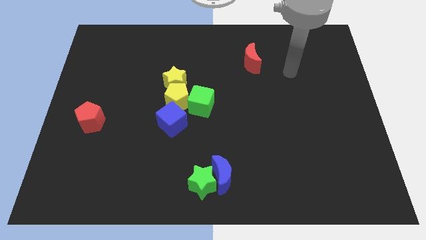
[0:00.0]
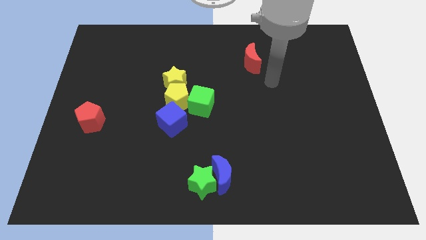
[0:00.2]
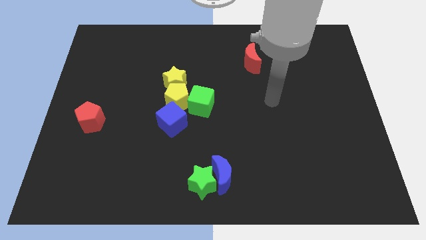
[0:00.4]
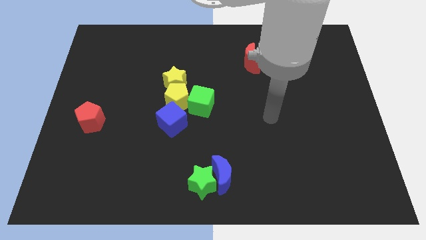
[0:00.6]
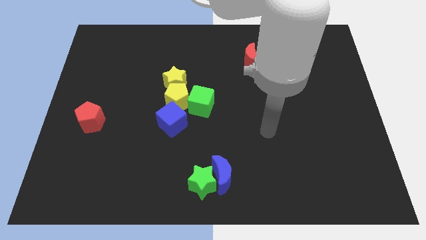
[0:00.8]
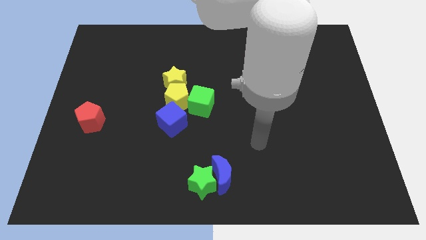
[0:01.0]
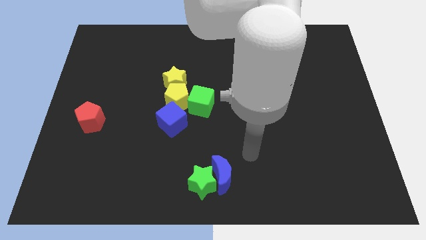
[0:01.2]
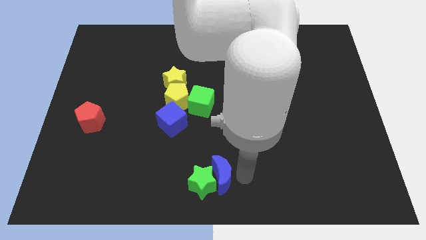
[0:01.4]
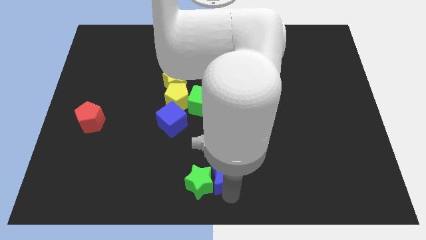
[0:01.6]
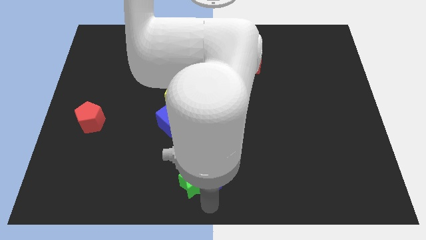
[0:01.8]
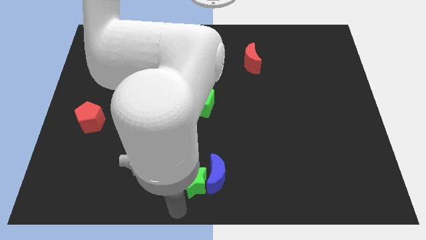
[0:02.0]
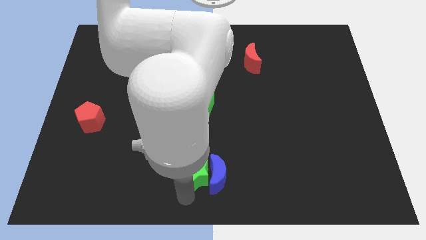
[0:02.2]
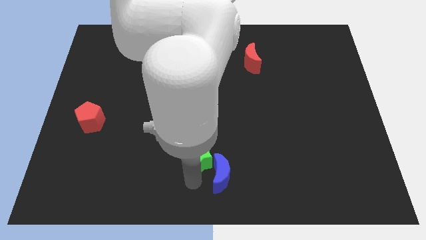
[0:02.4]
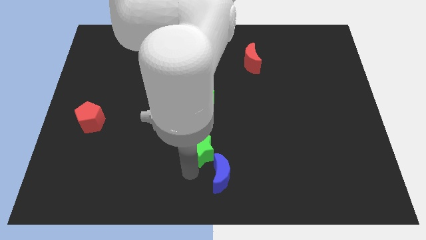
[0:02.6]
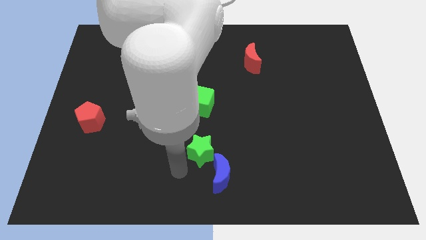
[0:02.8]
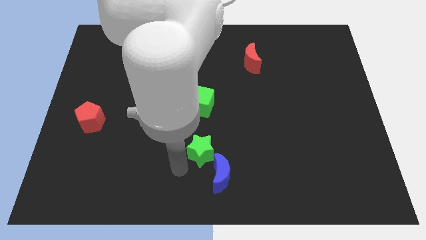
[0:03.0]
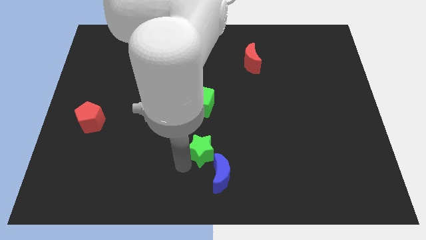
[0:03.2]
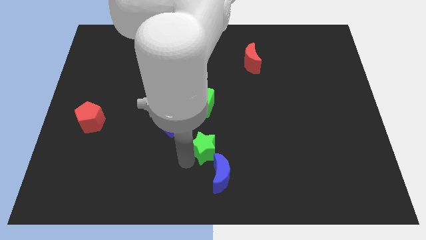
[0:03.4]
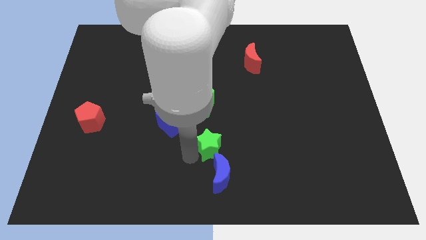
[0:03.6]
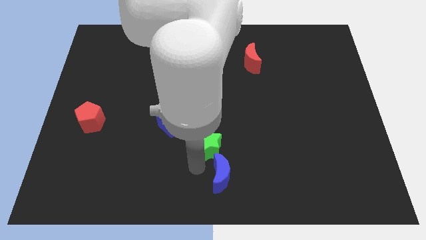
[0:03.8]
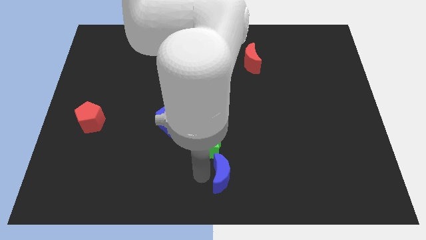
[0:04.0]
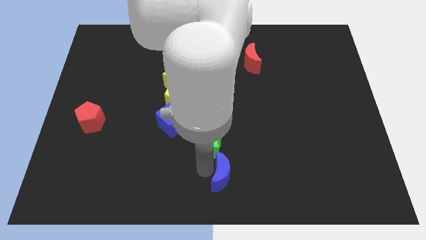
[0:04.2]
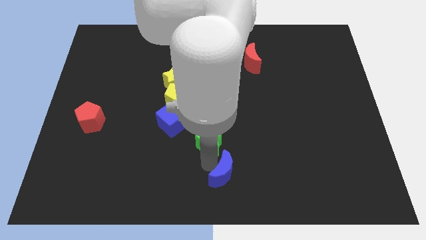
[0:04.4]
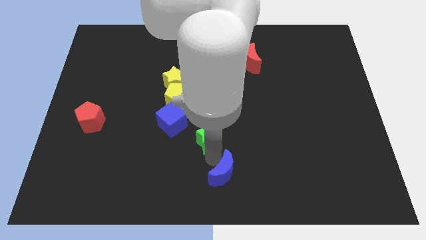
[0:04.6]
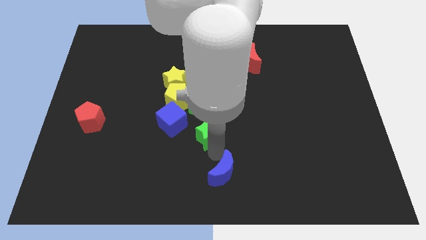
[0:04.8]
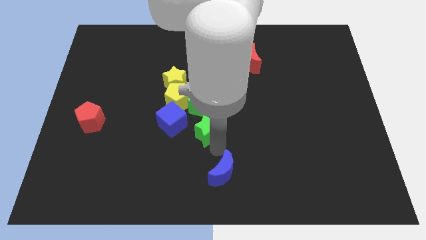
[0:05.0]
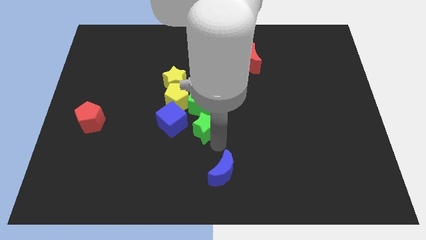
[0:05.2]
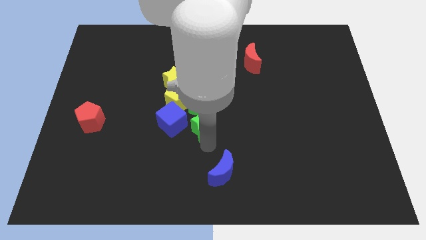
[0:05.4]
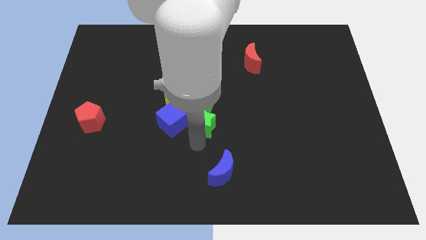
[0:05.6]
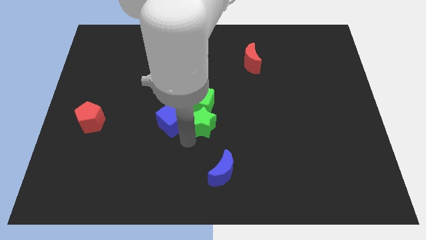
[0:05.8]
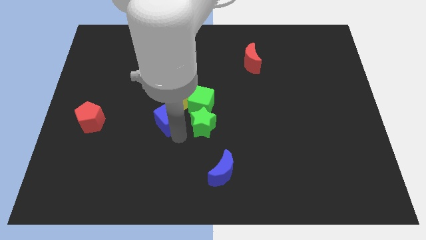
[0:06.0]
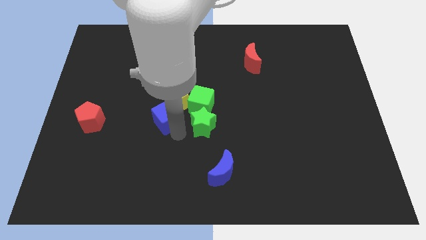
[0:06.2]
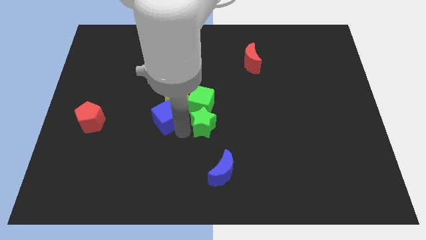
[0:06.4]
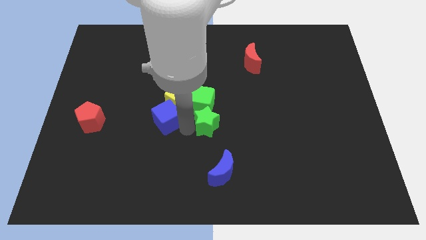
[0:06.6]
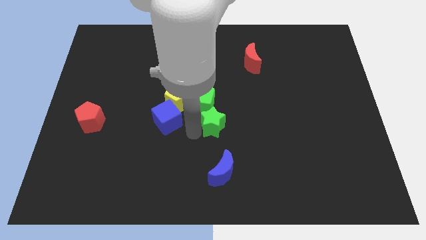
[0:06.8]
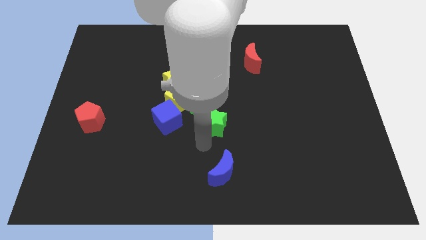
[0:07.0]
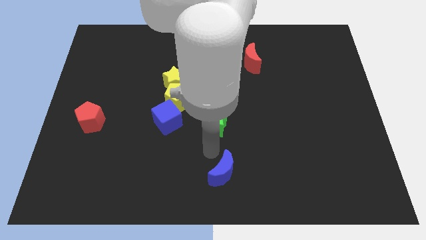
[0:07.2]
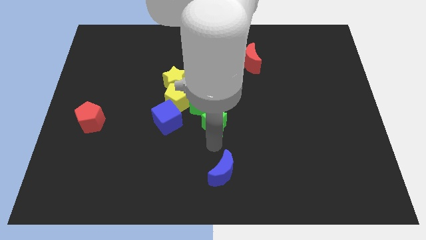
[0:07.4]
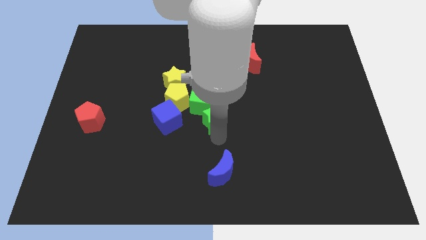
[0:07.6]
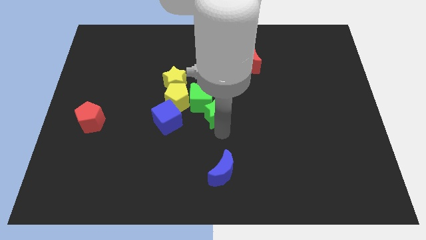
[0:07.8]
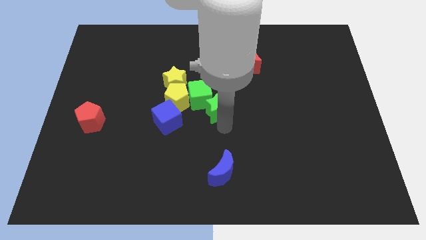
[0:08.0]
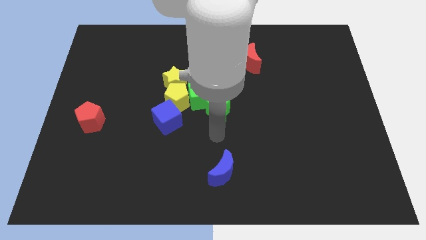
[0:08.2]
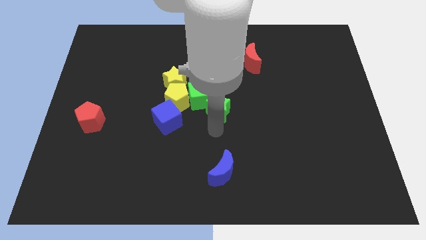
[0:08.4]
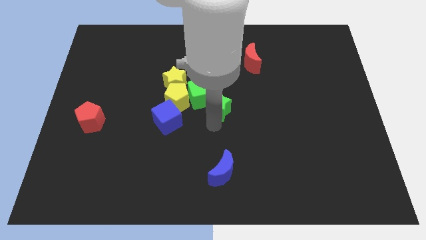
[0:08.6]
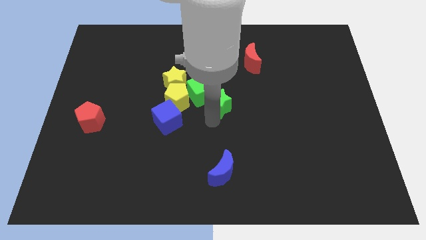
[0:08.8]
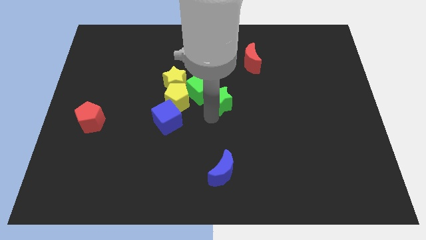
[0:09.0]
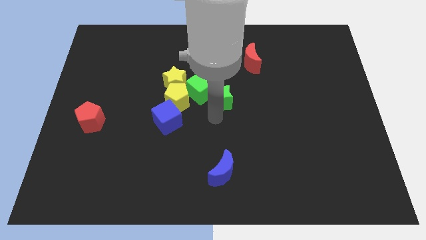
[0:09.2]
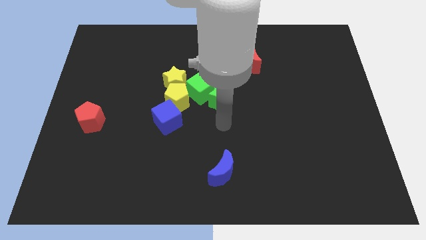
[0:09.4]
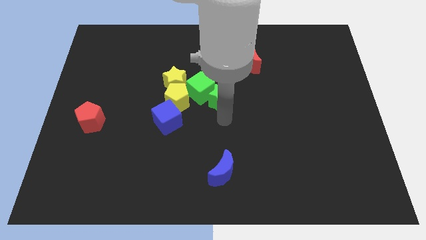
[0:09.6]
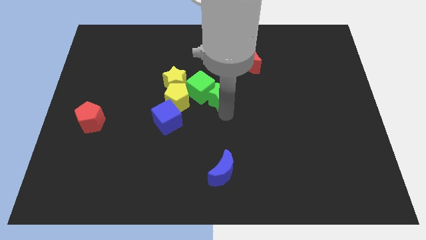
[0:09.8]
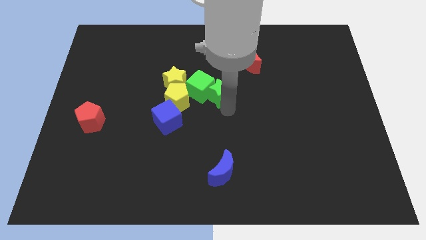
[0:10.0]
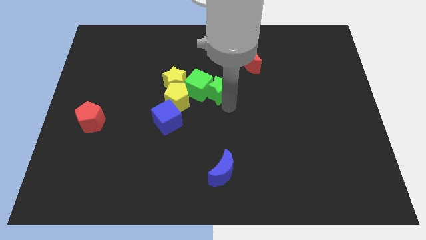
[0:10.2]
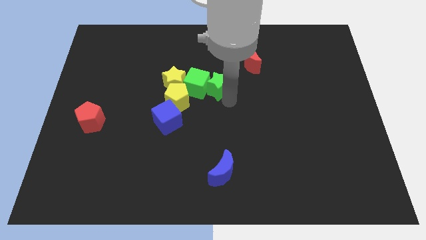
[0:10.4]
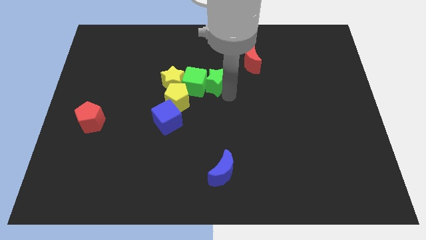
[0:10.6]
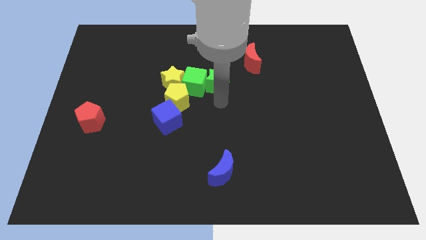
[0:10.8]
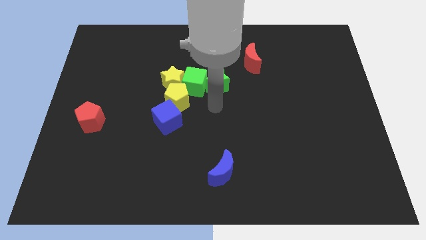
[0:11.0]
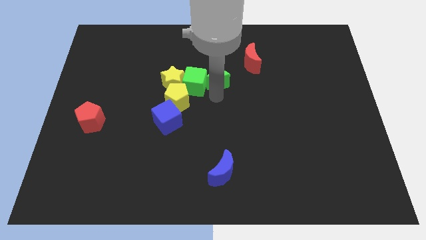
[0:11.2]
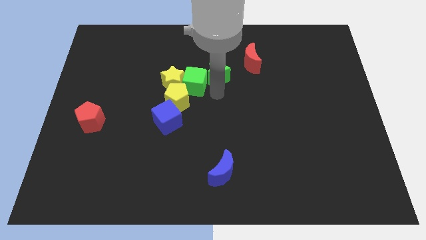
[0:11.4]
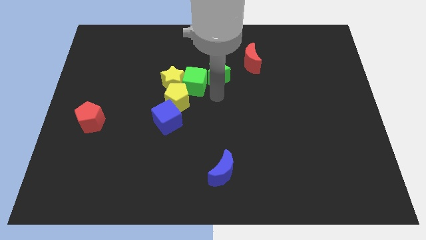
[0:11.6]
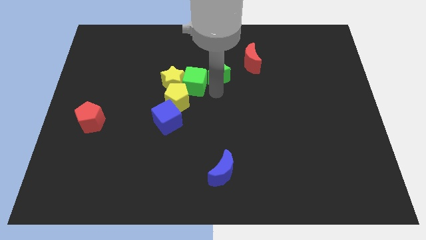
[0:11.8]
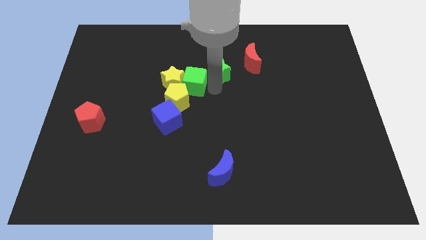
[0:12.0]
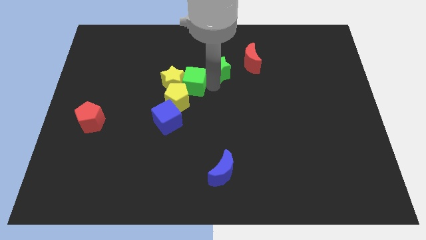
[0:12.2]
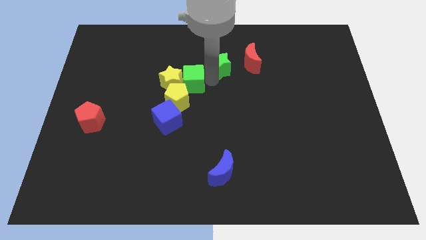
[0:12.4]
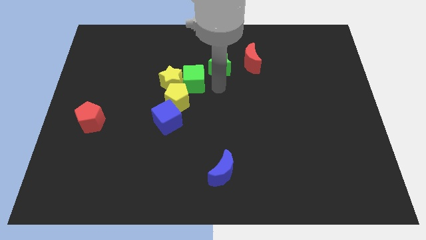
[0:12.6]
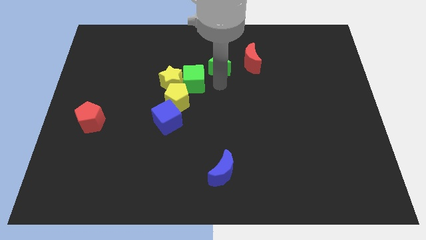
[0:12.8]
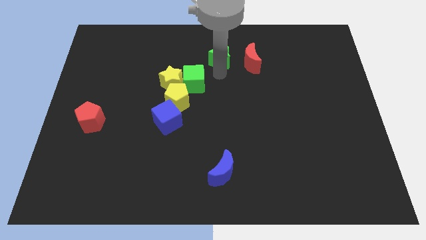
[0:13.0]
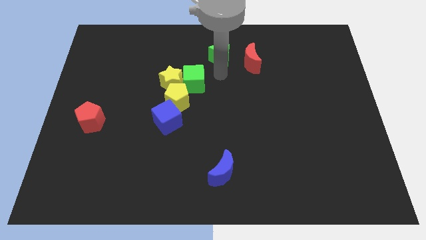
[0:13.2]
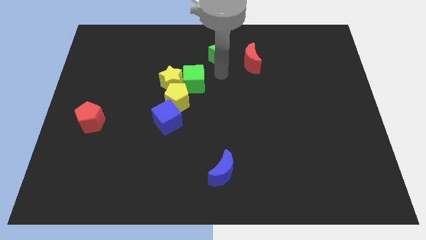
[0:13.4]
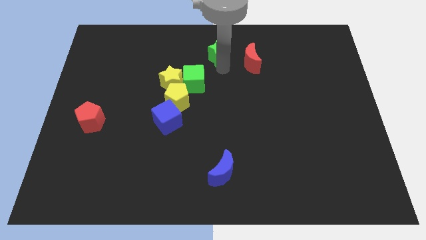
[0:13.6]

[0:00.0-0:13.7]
put the green star to the towards your base
